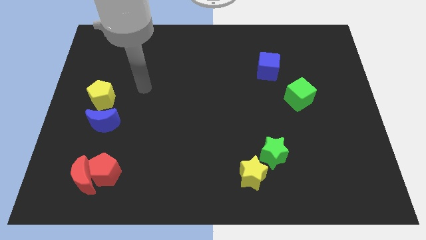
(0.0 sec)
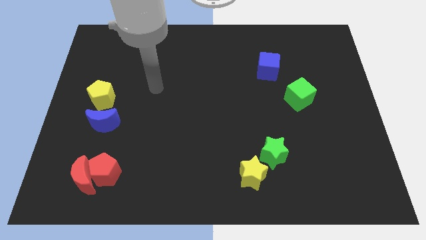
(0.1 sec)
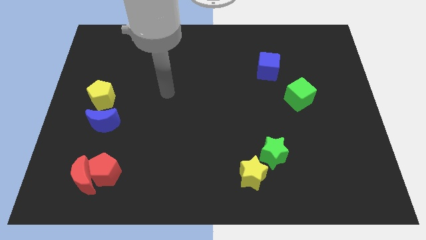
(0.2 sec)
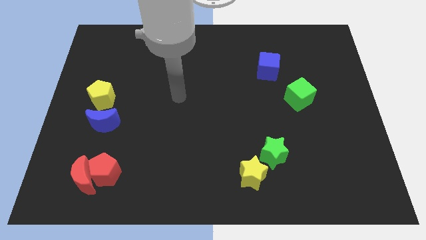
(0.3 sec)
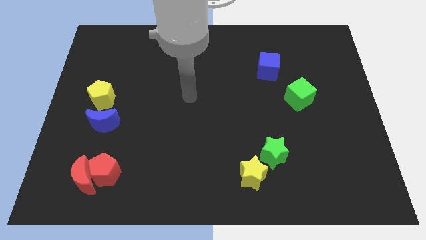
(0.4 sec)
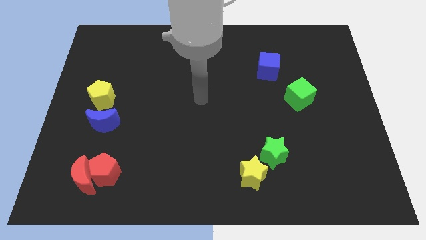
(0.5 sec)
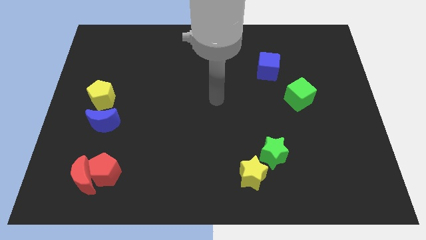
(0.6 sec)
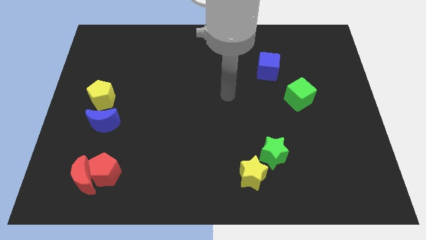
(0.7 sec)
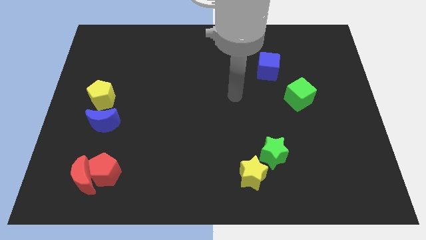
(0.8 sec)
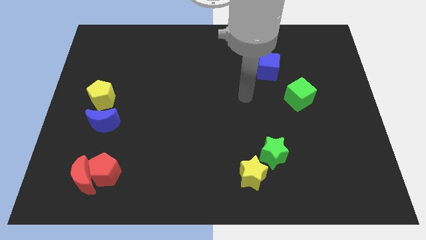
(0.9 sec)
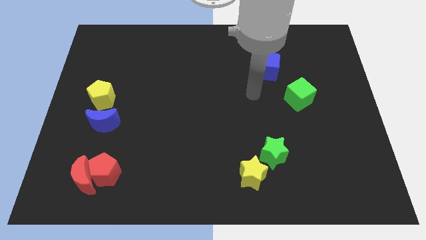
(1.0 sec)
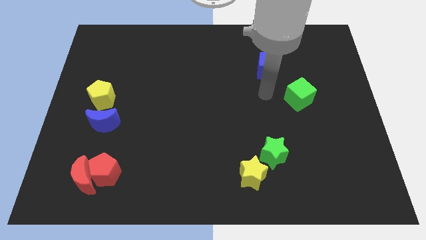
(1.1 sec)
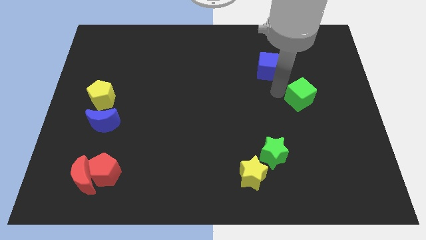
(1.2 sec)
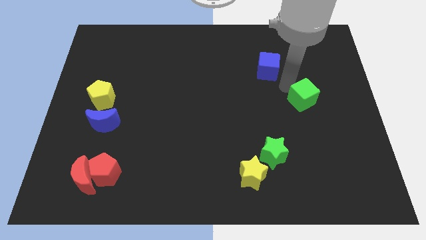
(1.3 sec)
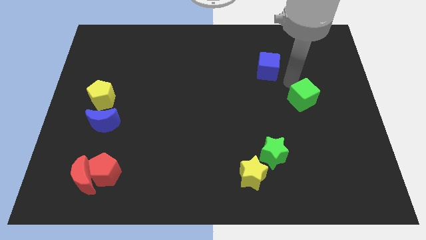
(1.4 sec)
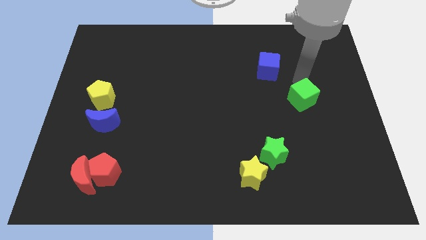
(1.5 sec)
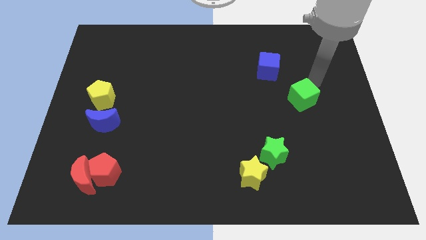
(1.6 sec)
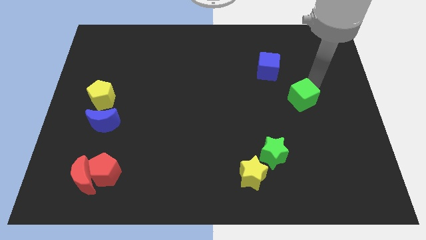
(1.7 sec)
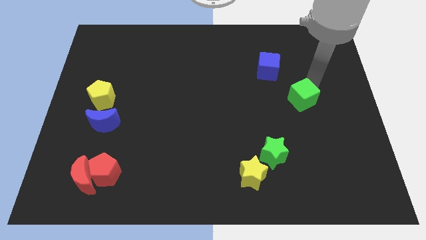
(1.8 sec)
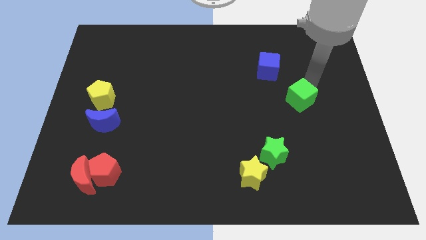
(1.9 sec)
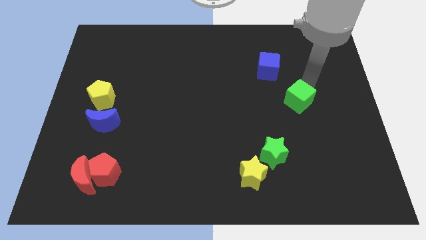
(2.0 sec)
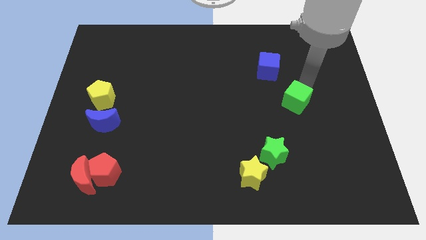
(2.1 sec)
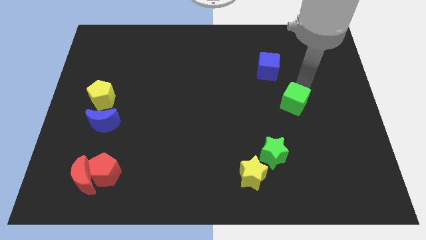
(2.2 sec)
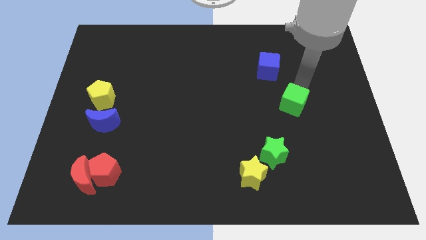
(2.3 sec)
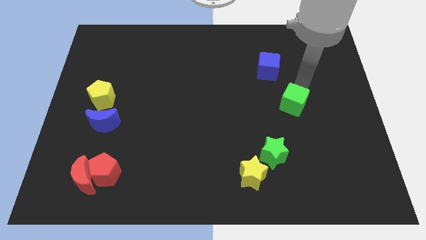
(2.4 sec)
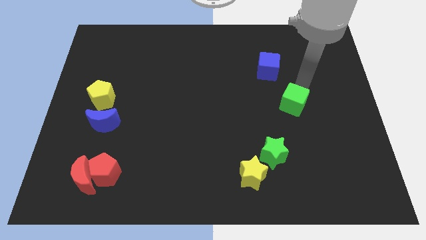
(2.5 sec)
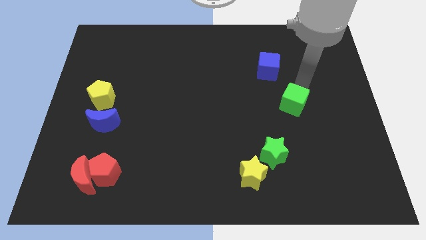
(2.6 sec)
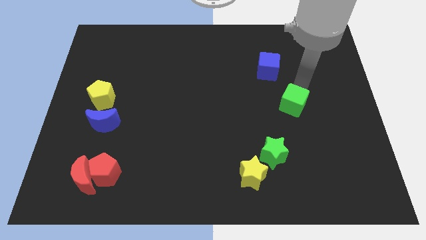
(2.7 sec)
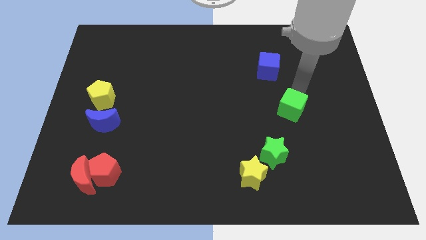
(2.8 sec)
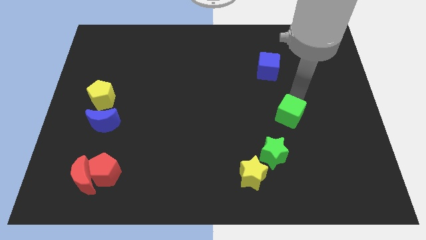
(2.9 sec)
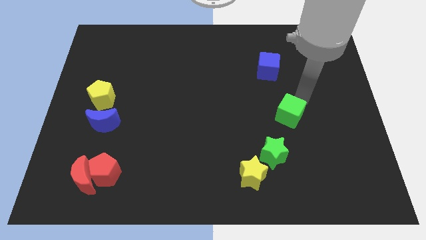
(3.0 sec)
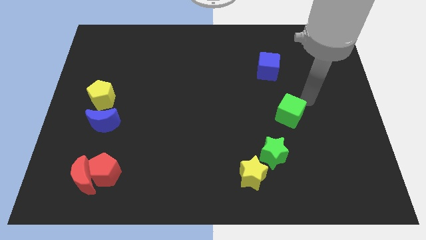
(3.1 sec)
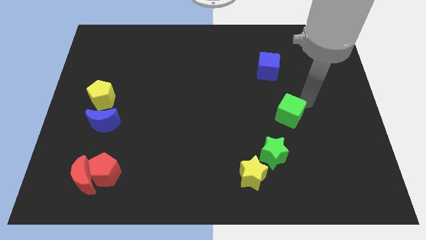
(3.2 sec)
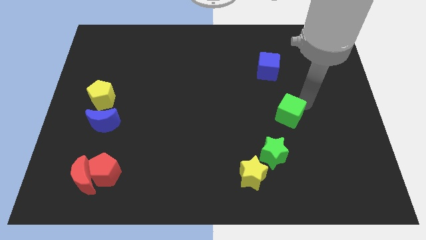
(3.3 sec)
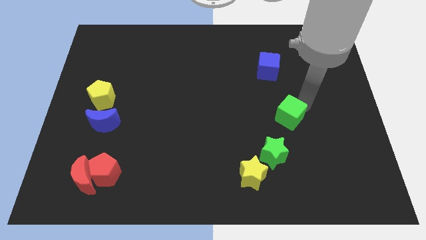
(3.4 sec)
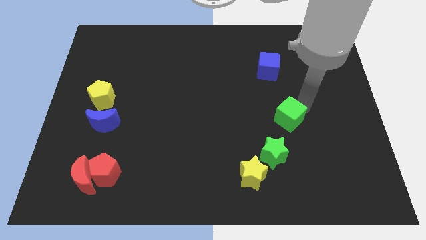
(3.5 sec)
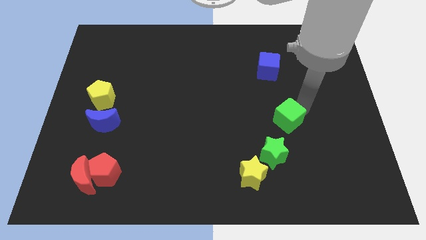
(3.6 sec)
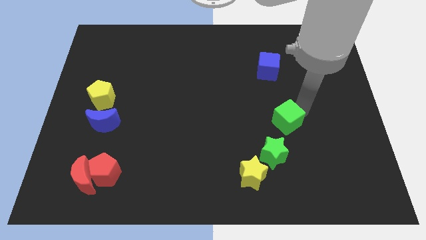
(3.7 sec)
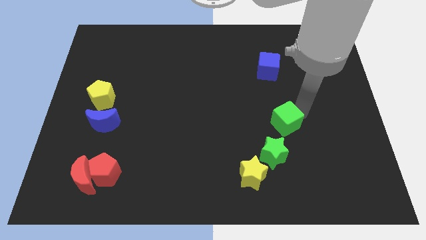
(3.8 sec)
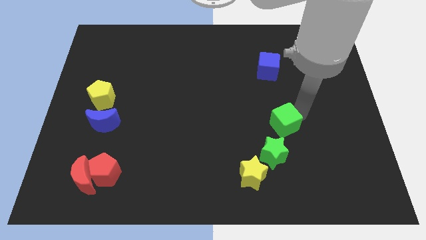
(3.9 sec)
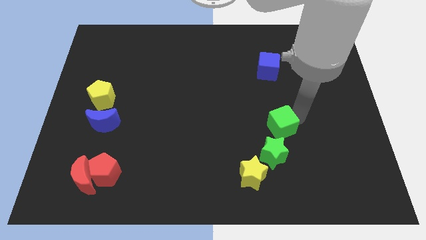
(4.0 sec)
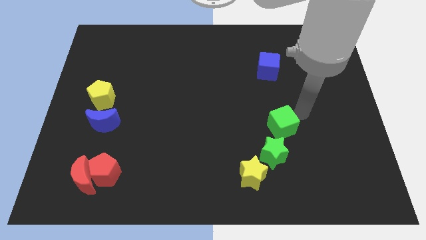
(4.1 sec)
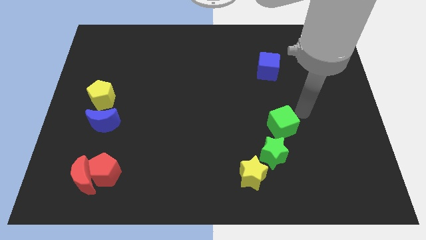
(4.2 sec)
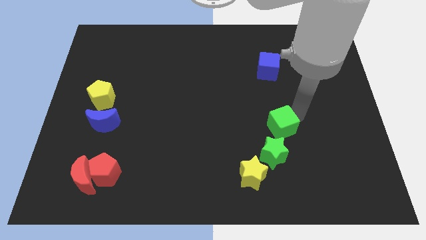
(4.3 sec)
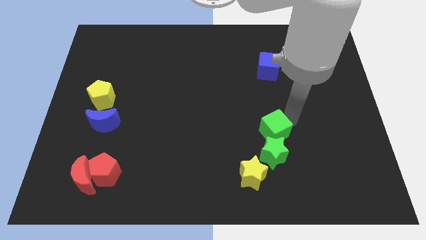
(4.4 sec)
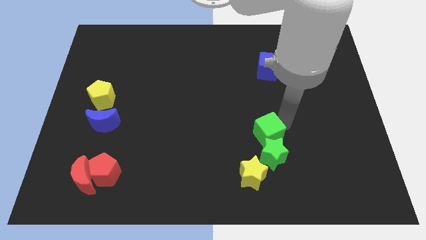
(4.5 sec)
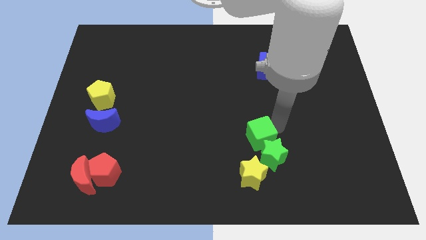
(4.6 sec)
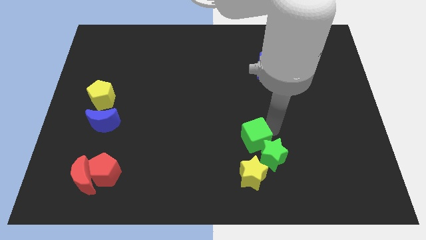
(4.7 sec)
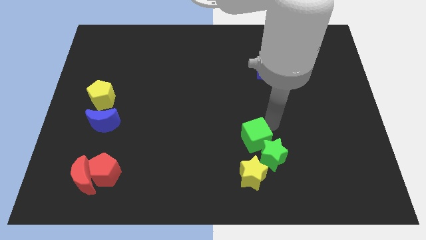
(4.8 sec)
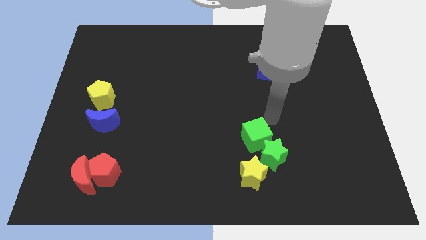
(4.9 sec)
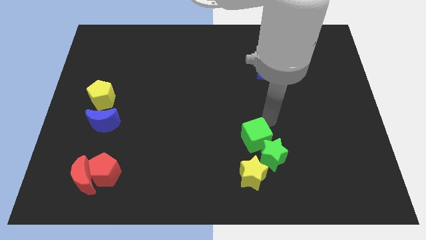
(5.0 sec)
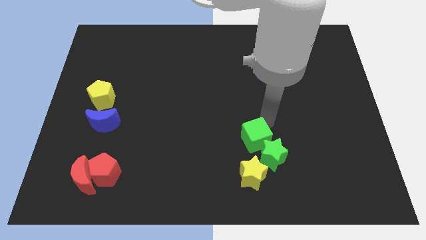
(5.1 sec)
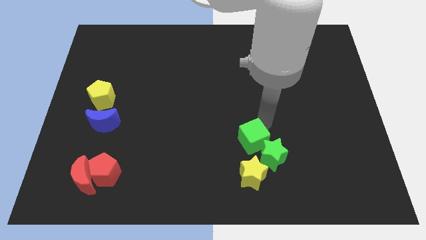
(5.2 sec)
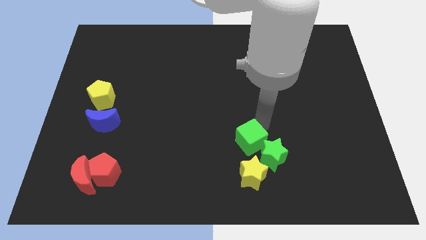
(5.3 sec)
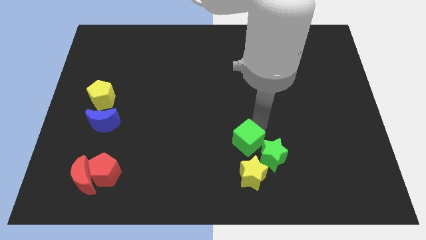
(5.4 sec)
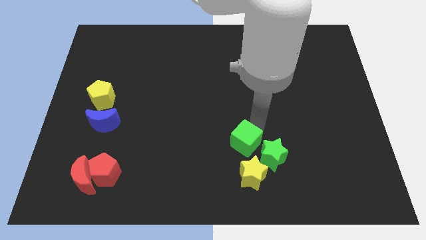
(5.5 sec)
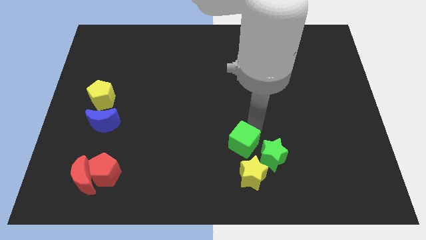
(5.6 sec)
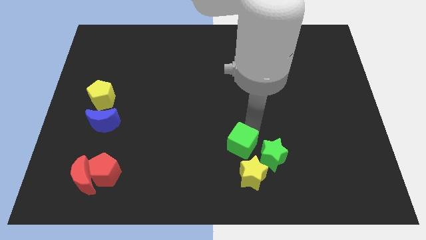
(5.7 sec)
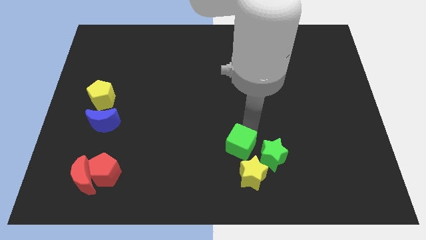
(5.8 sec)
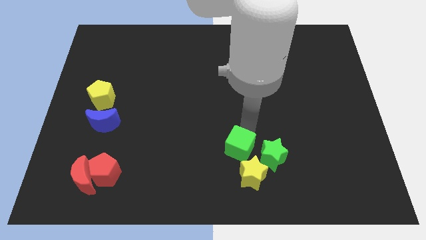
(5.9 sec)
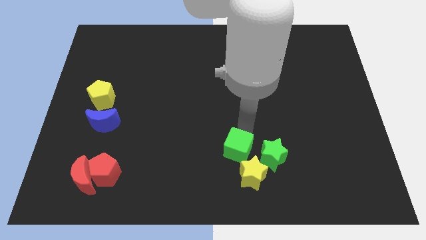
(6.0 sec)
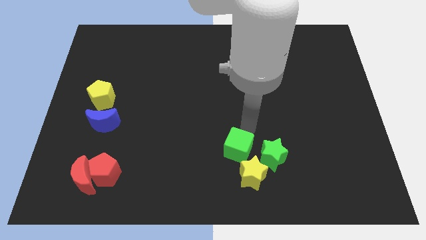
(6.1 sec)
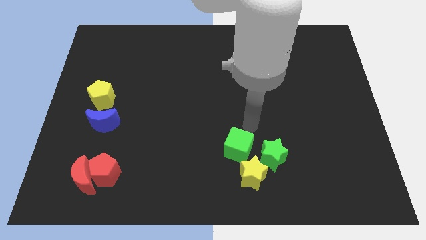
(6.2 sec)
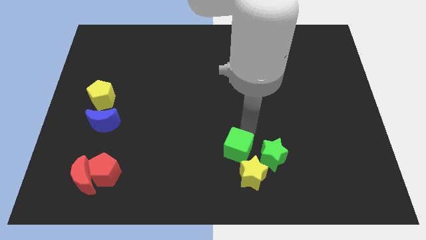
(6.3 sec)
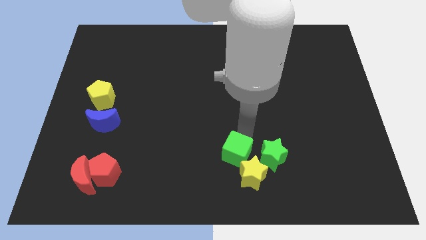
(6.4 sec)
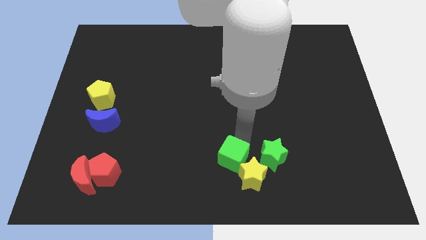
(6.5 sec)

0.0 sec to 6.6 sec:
move the green cube to the bottom

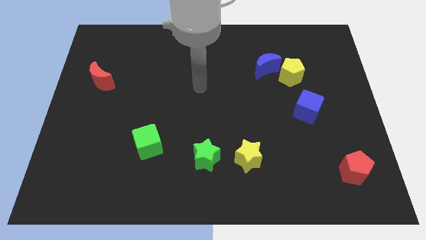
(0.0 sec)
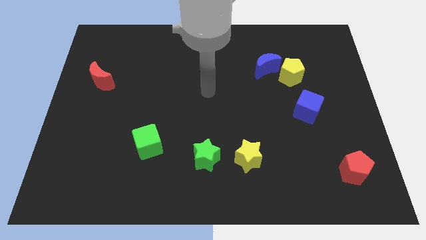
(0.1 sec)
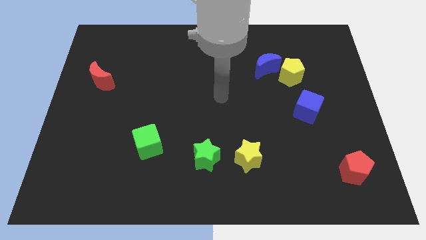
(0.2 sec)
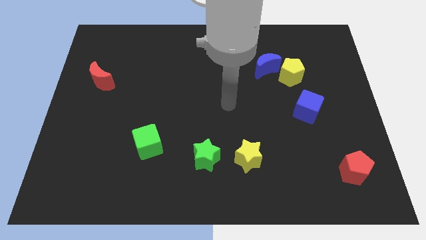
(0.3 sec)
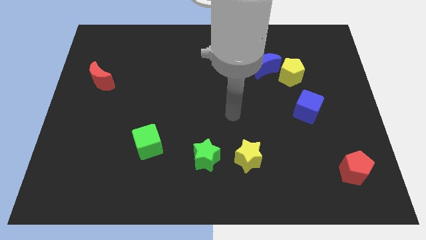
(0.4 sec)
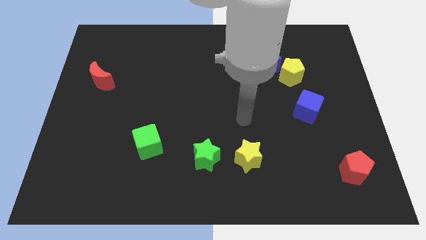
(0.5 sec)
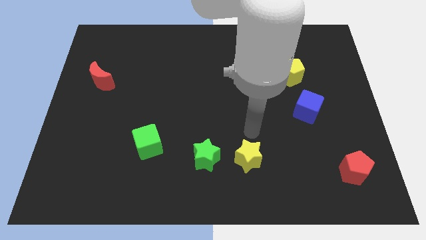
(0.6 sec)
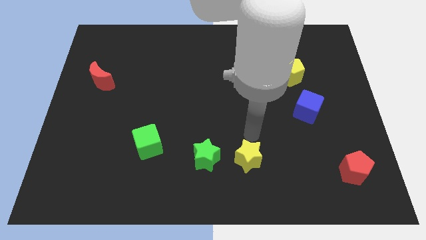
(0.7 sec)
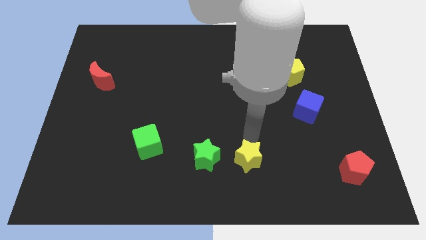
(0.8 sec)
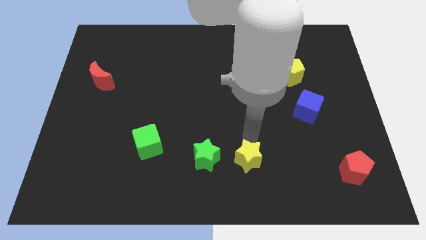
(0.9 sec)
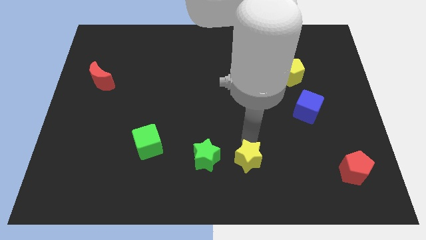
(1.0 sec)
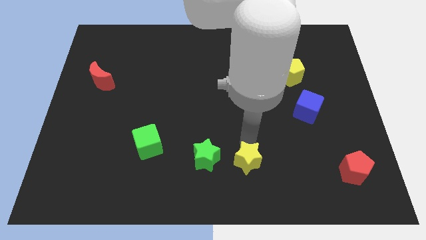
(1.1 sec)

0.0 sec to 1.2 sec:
put the yellow star to the bottom side
